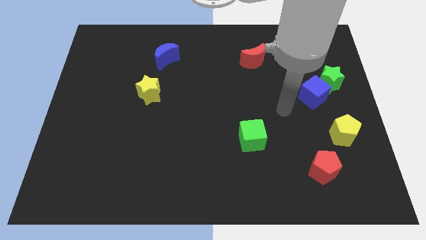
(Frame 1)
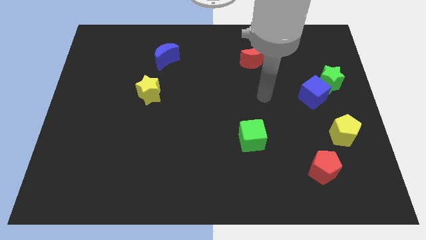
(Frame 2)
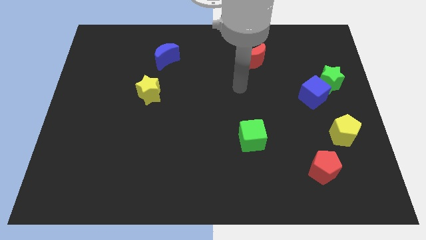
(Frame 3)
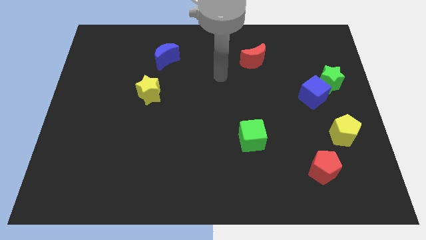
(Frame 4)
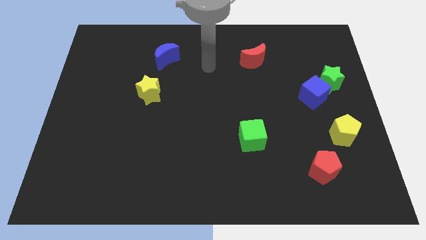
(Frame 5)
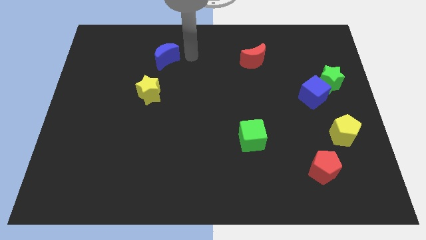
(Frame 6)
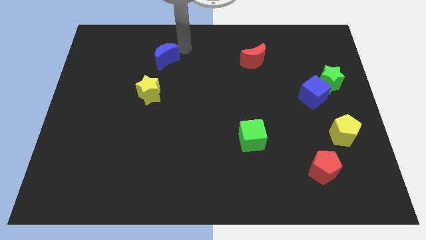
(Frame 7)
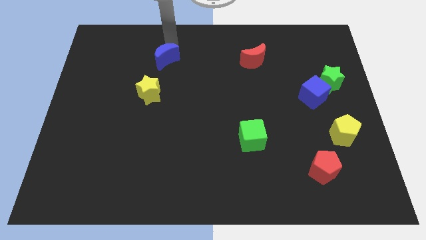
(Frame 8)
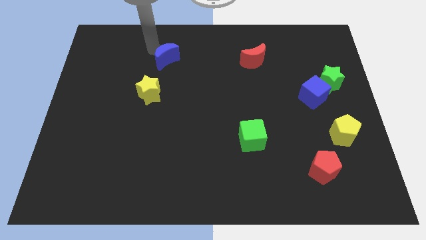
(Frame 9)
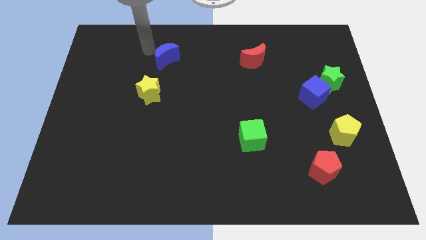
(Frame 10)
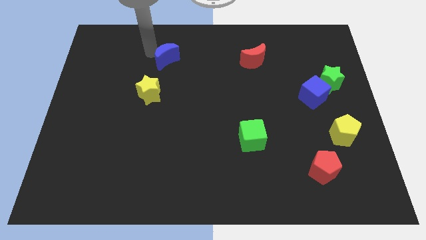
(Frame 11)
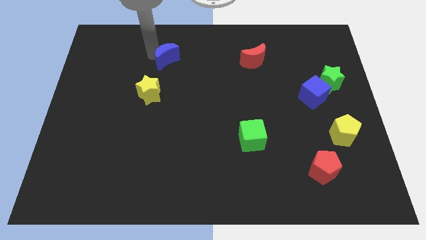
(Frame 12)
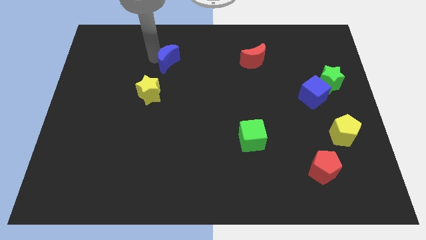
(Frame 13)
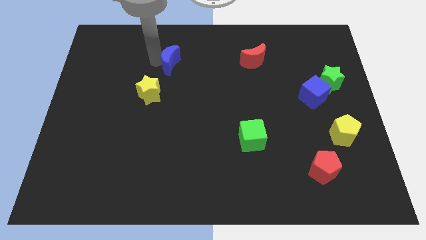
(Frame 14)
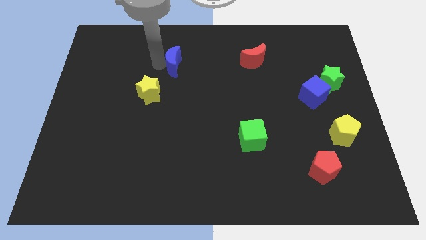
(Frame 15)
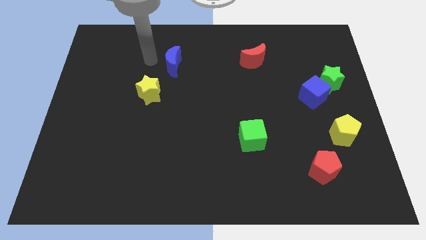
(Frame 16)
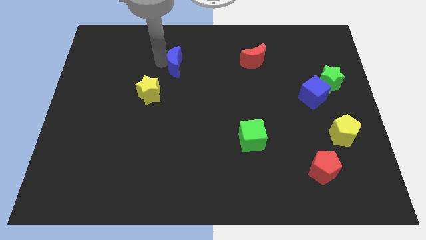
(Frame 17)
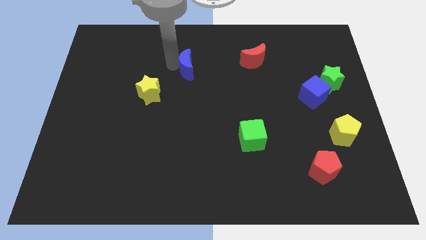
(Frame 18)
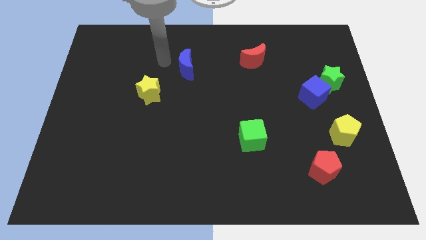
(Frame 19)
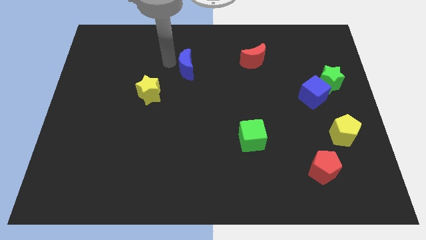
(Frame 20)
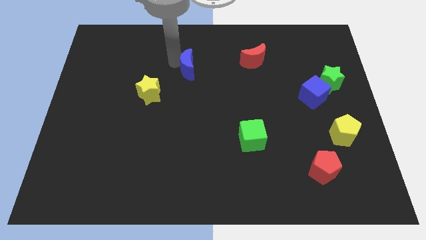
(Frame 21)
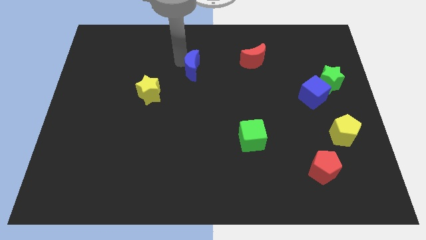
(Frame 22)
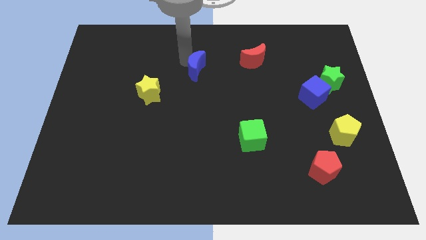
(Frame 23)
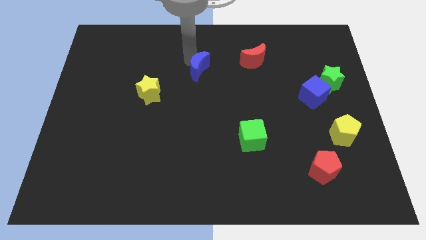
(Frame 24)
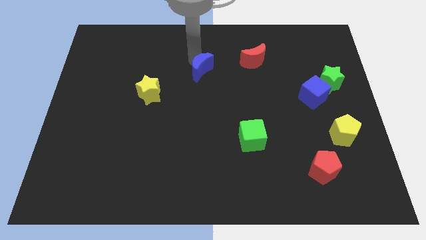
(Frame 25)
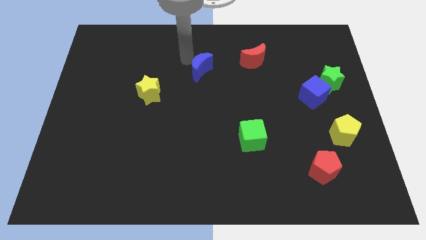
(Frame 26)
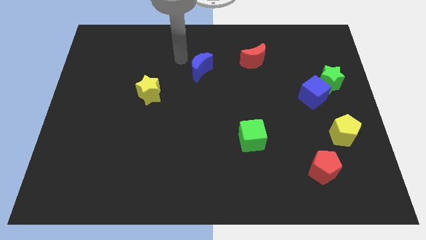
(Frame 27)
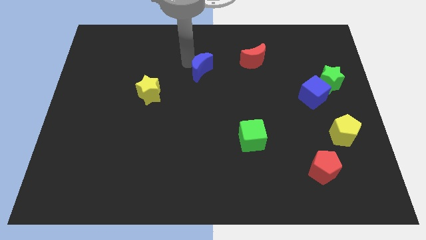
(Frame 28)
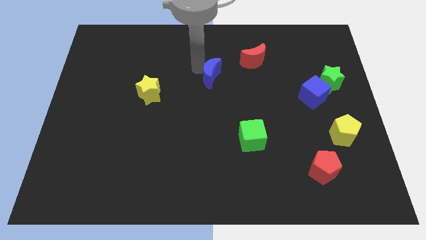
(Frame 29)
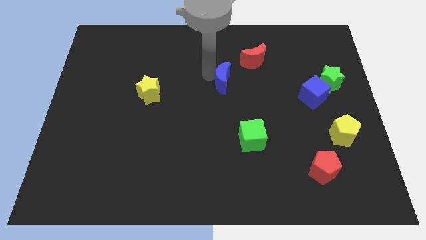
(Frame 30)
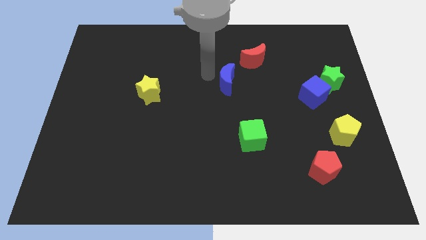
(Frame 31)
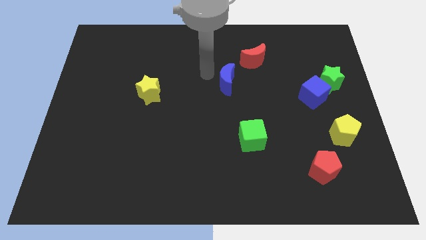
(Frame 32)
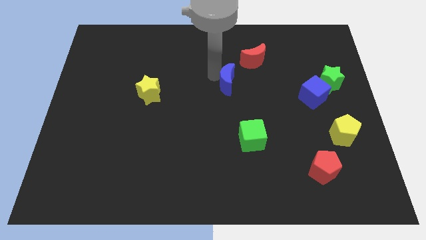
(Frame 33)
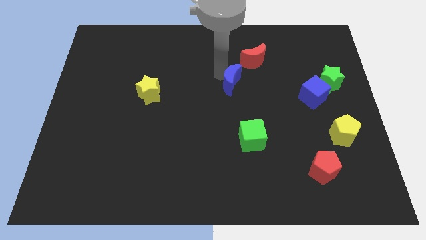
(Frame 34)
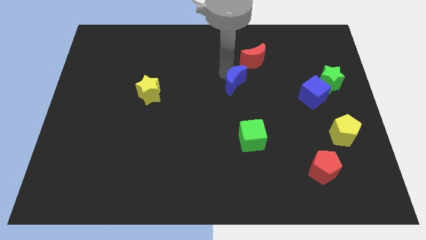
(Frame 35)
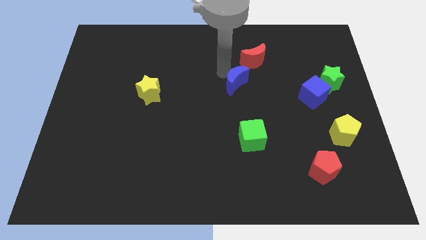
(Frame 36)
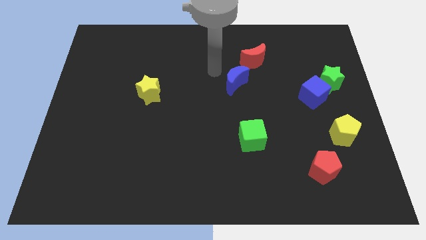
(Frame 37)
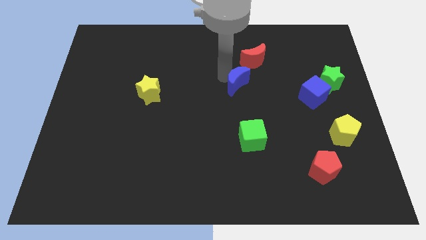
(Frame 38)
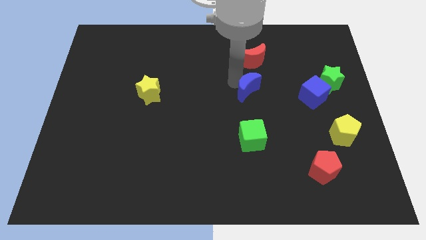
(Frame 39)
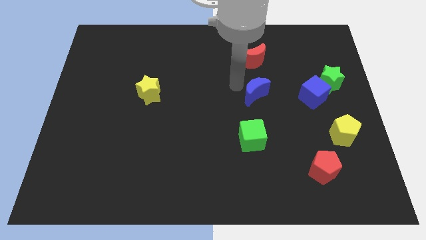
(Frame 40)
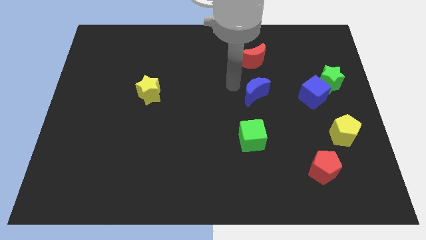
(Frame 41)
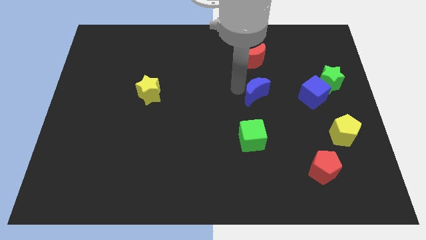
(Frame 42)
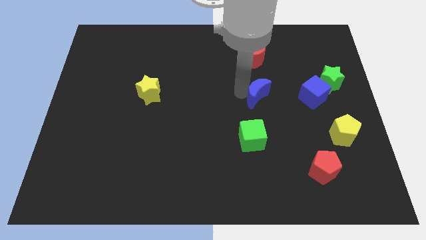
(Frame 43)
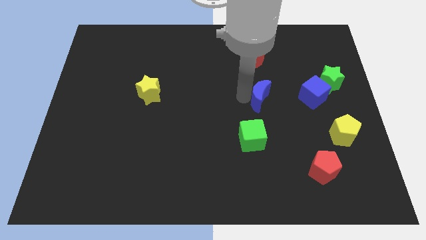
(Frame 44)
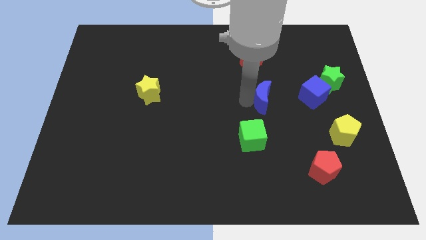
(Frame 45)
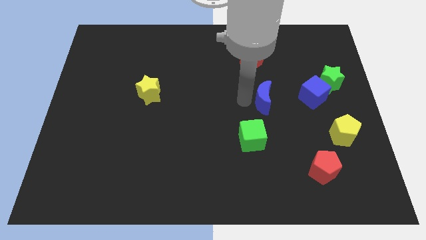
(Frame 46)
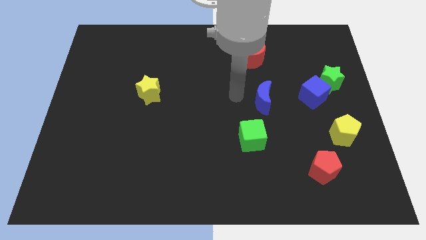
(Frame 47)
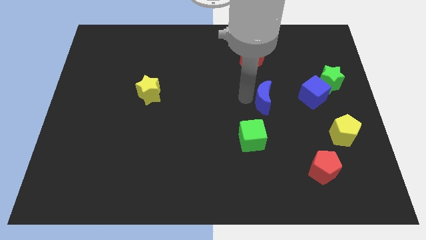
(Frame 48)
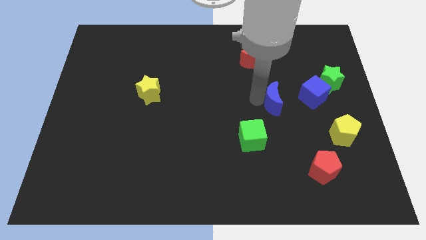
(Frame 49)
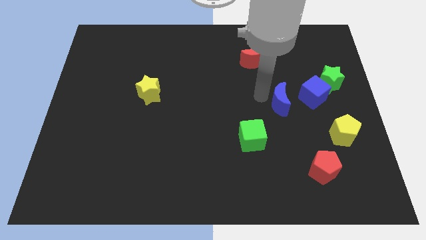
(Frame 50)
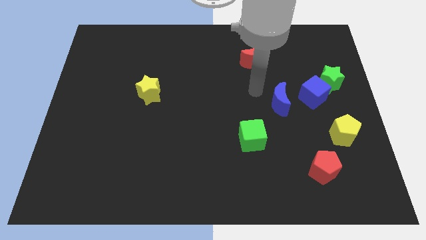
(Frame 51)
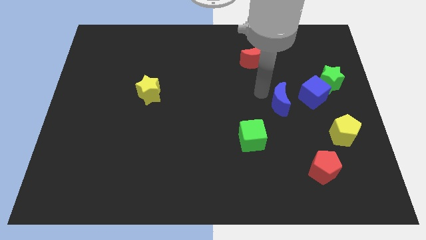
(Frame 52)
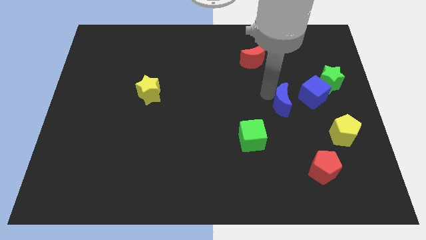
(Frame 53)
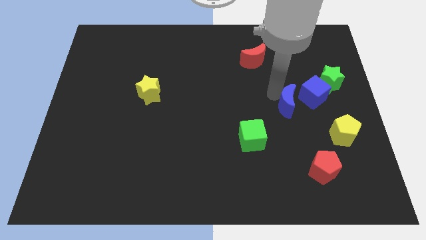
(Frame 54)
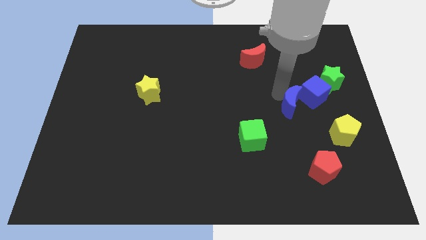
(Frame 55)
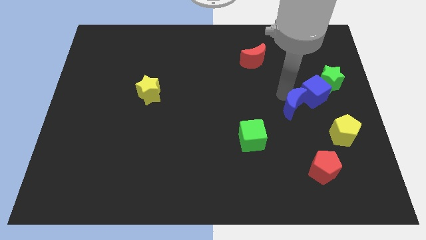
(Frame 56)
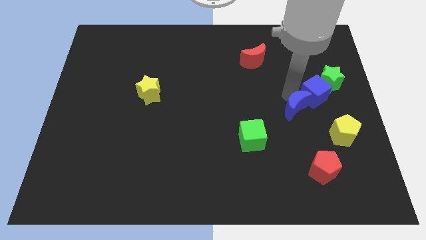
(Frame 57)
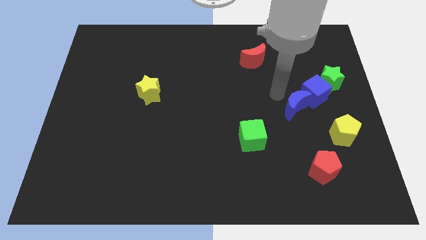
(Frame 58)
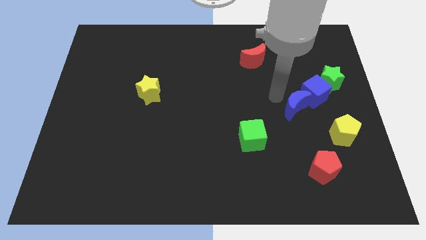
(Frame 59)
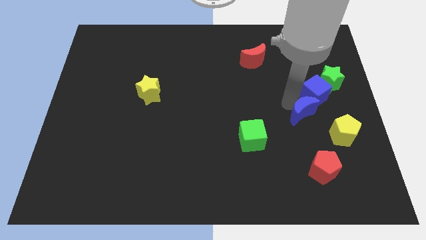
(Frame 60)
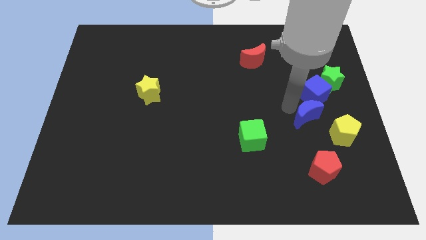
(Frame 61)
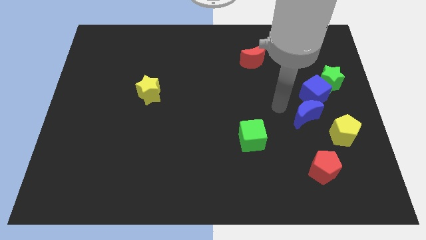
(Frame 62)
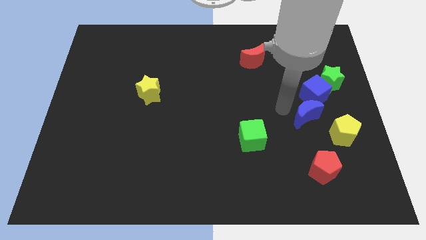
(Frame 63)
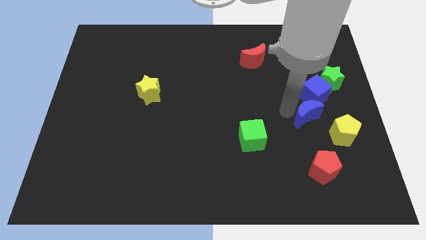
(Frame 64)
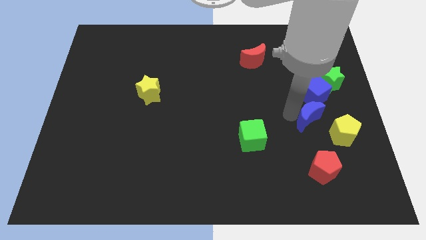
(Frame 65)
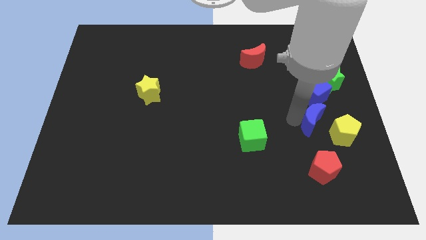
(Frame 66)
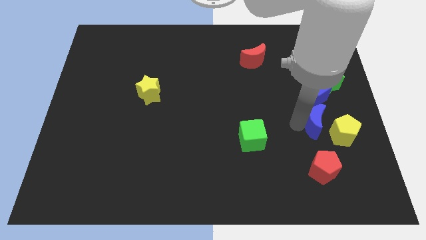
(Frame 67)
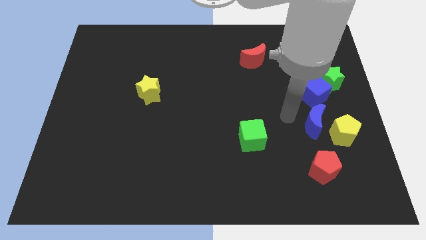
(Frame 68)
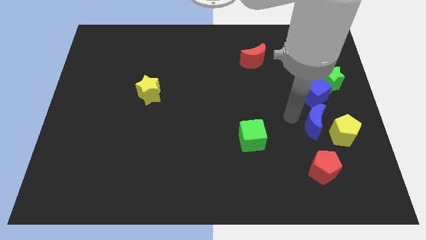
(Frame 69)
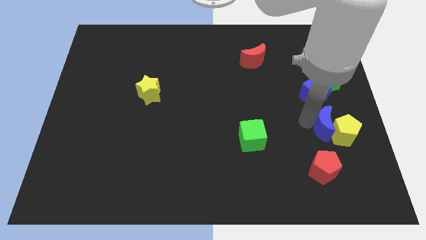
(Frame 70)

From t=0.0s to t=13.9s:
push the blue moon close to the yellow pentagon
